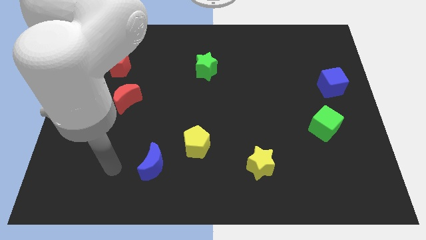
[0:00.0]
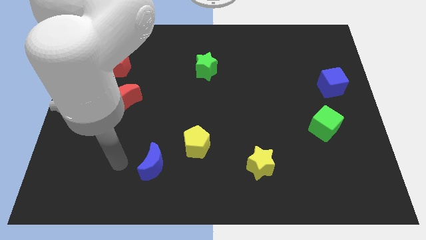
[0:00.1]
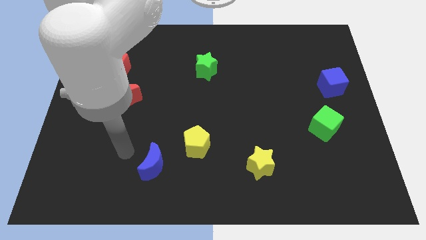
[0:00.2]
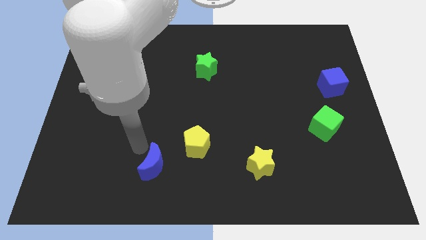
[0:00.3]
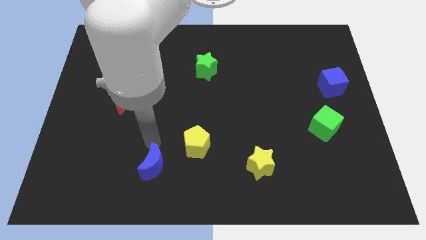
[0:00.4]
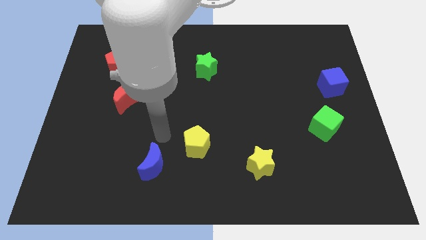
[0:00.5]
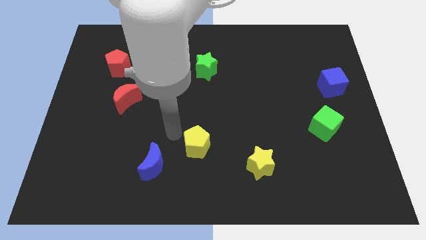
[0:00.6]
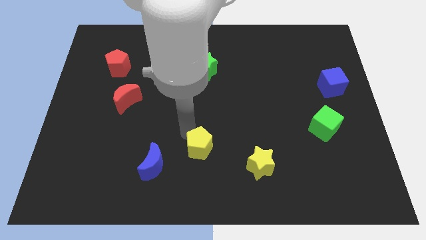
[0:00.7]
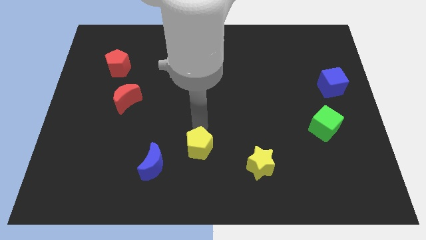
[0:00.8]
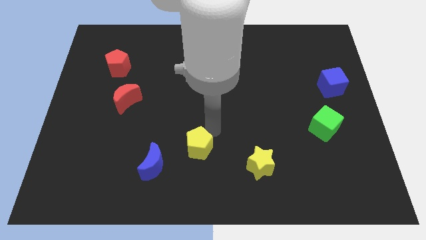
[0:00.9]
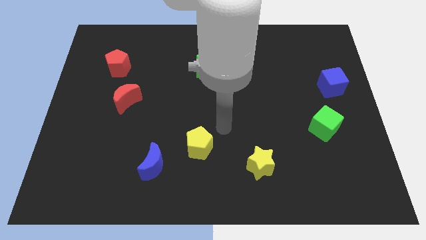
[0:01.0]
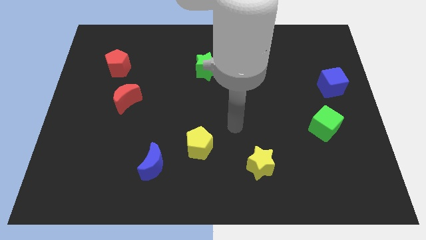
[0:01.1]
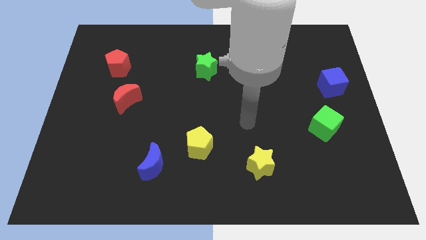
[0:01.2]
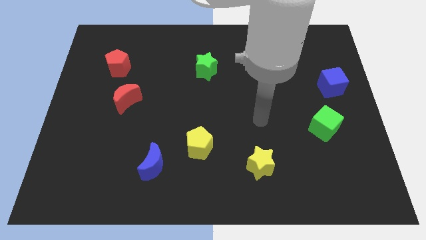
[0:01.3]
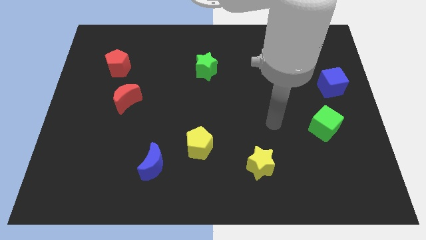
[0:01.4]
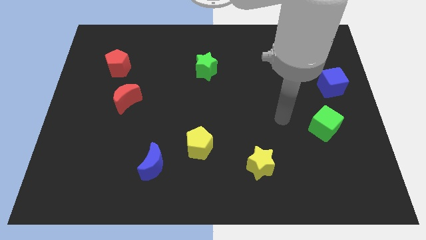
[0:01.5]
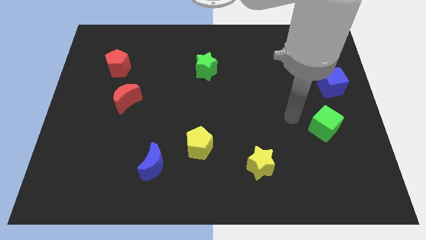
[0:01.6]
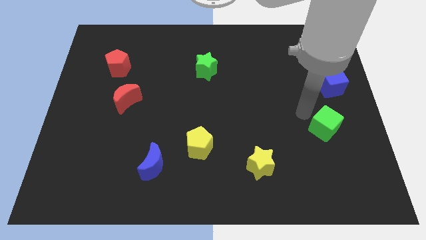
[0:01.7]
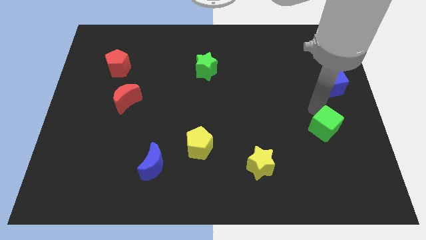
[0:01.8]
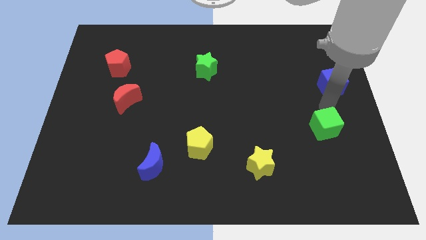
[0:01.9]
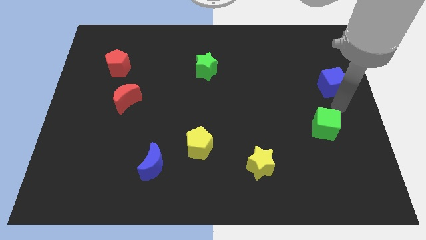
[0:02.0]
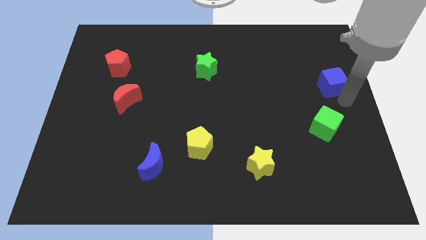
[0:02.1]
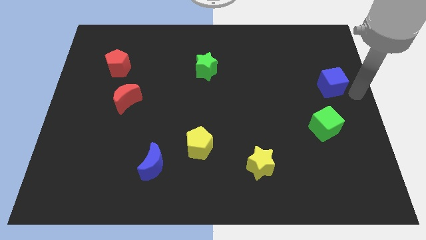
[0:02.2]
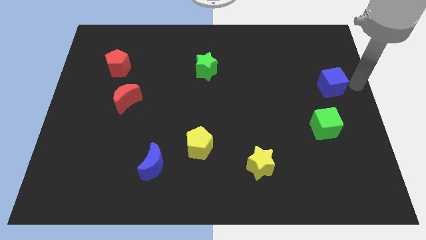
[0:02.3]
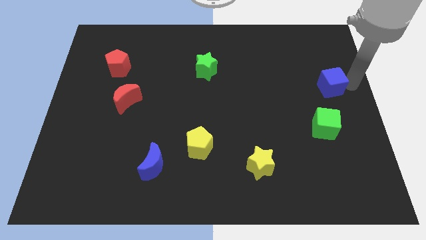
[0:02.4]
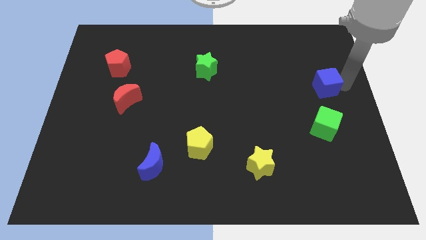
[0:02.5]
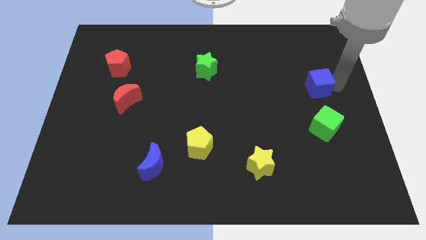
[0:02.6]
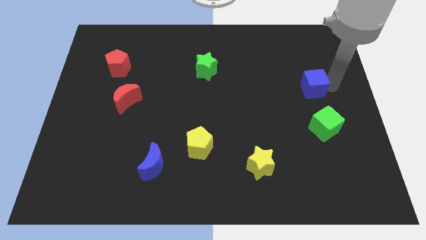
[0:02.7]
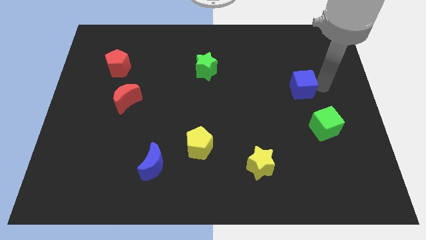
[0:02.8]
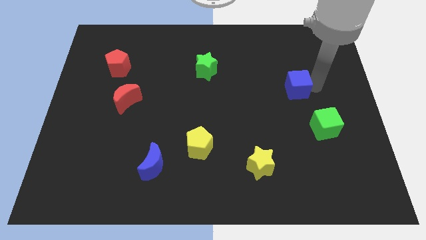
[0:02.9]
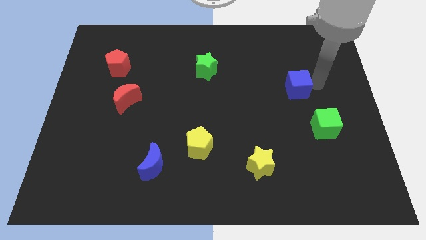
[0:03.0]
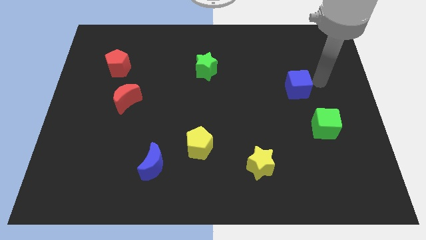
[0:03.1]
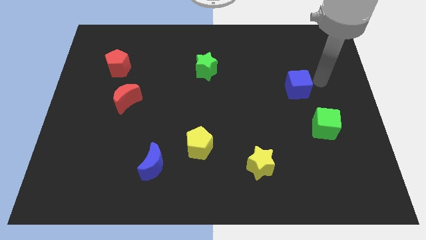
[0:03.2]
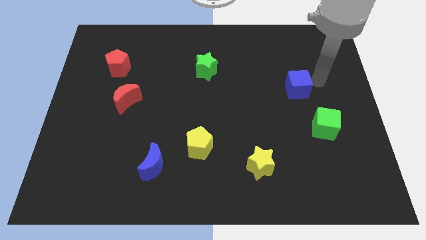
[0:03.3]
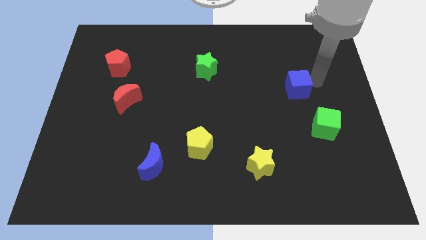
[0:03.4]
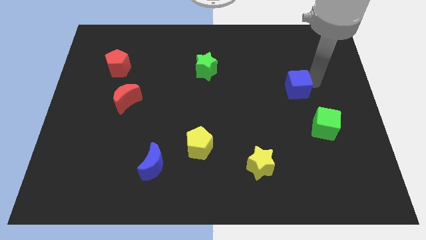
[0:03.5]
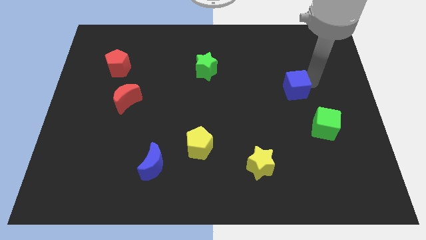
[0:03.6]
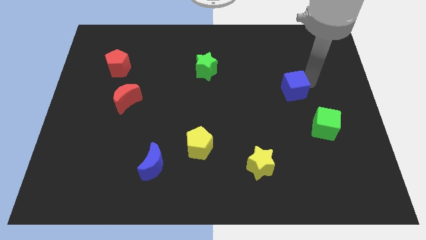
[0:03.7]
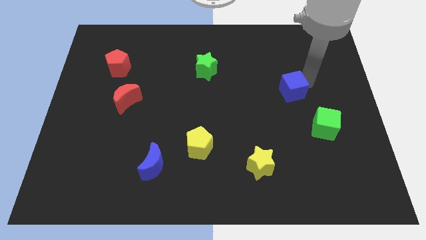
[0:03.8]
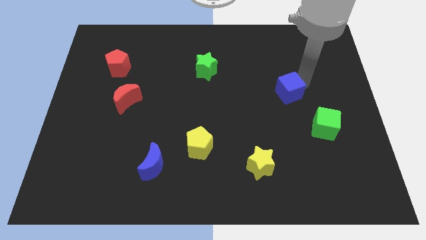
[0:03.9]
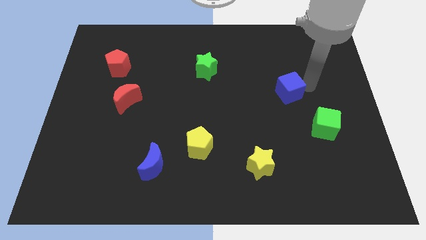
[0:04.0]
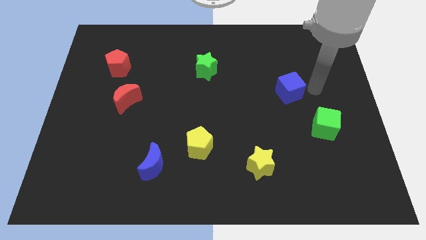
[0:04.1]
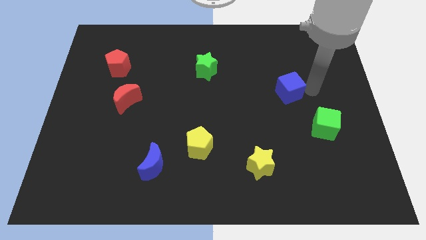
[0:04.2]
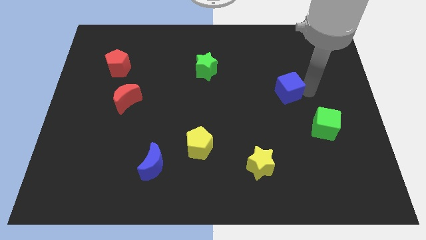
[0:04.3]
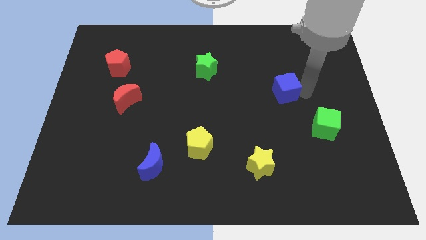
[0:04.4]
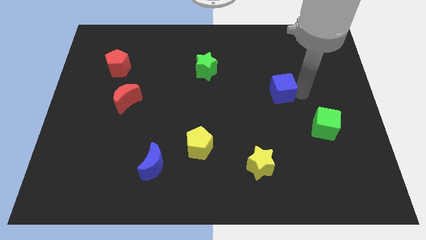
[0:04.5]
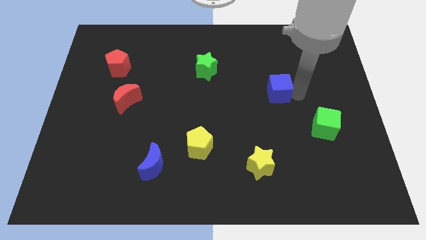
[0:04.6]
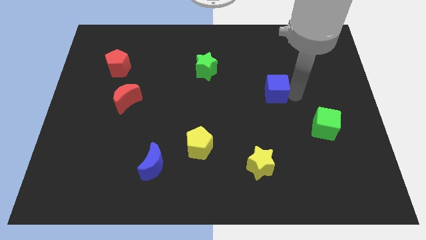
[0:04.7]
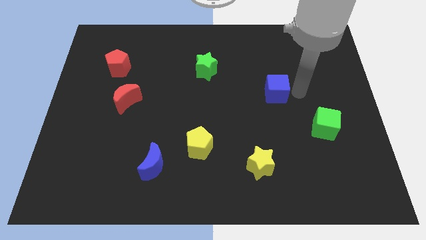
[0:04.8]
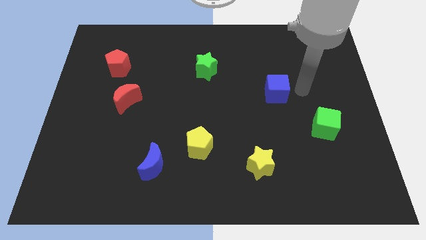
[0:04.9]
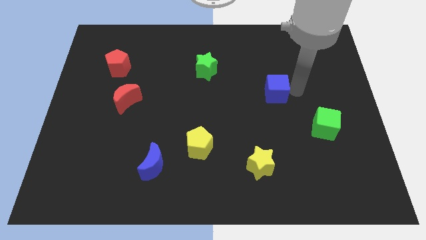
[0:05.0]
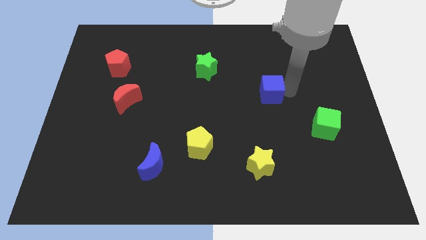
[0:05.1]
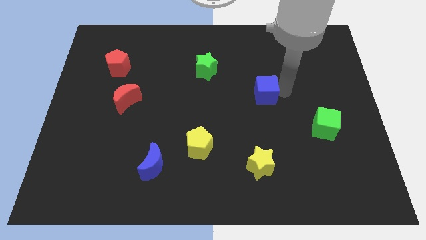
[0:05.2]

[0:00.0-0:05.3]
push the blue cube to the center of the board
